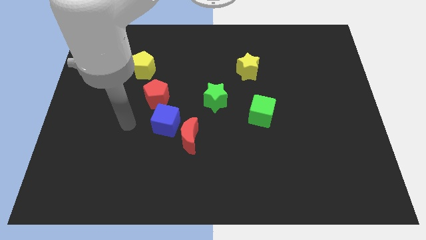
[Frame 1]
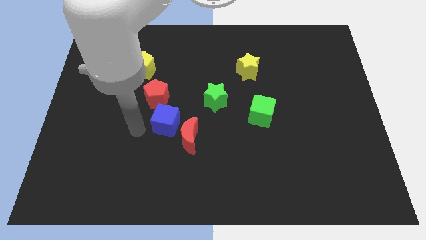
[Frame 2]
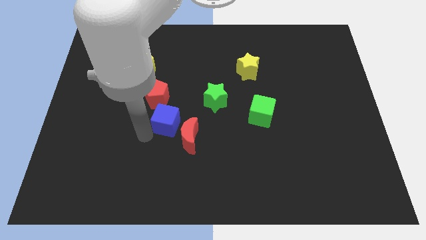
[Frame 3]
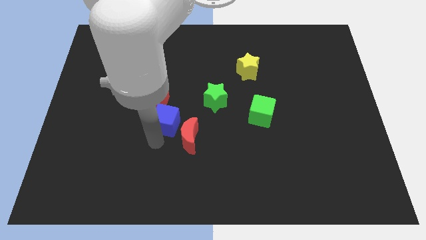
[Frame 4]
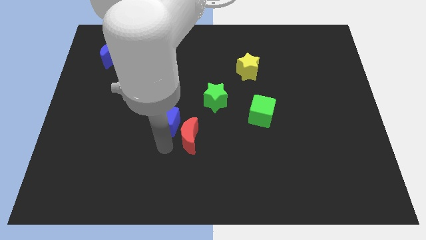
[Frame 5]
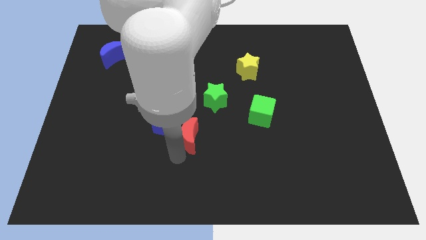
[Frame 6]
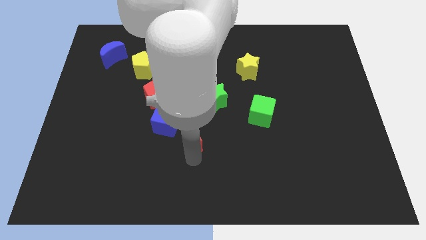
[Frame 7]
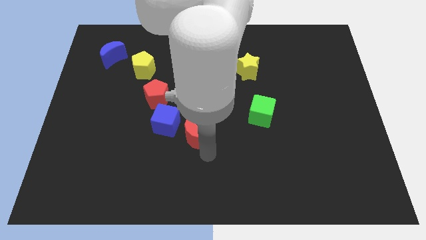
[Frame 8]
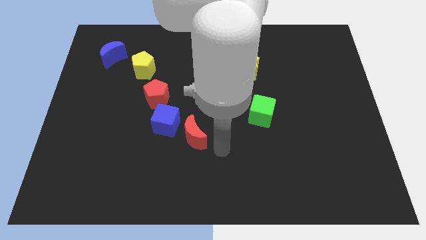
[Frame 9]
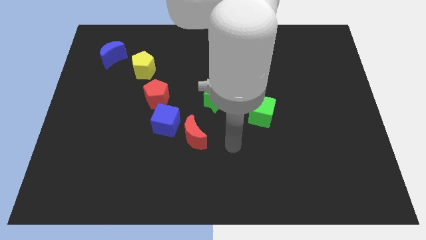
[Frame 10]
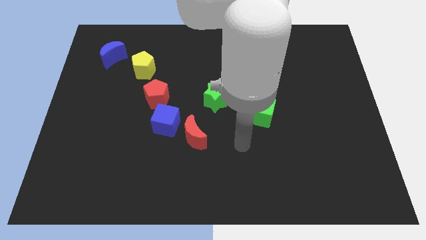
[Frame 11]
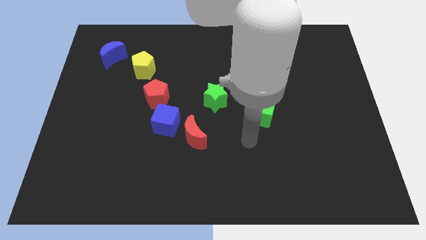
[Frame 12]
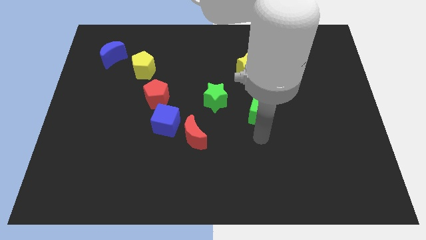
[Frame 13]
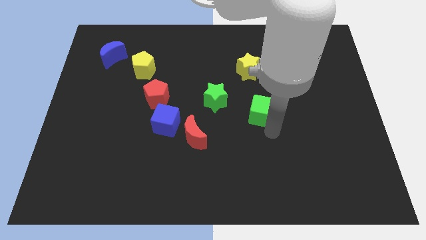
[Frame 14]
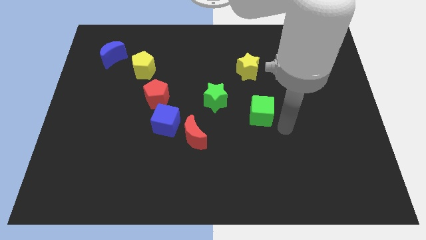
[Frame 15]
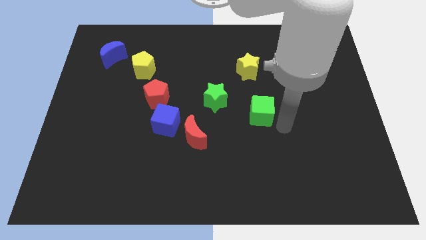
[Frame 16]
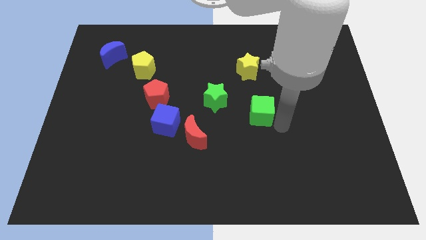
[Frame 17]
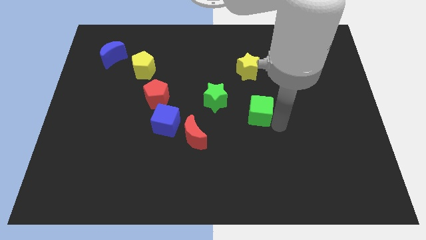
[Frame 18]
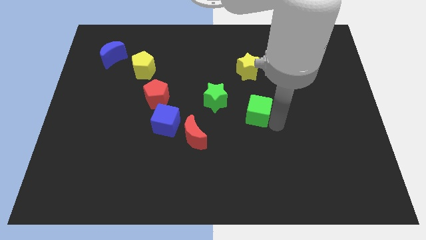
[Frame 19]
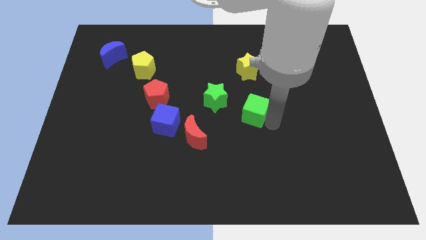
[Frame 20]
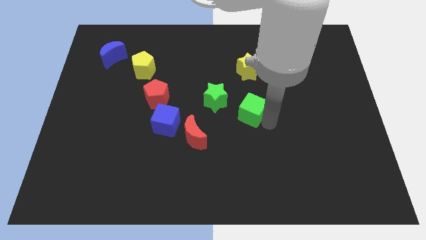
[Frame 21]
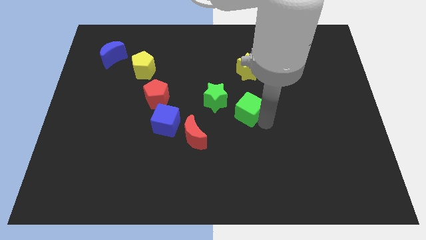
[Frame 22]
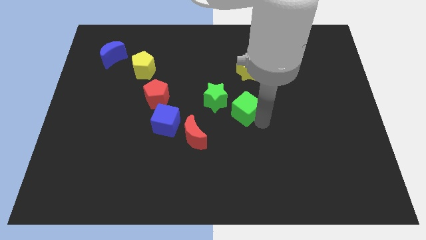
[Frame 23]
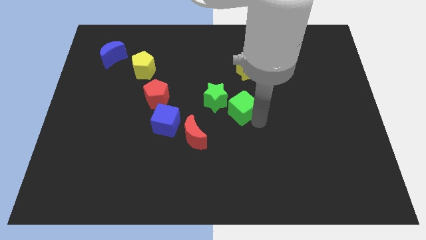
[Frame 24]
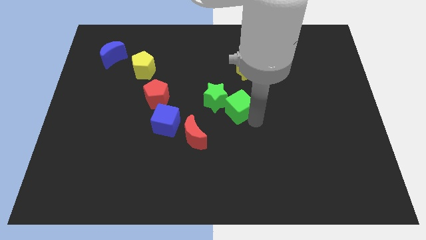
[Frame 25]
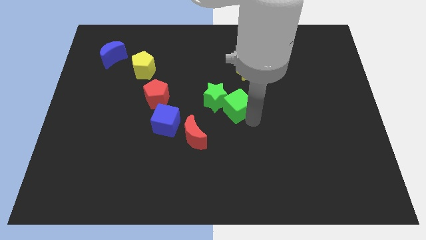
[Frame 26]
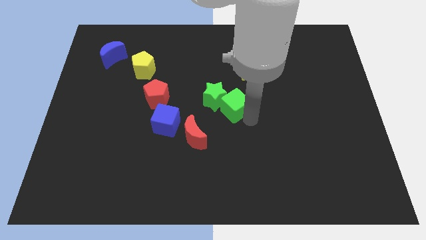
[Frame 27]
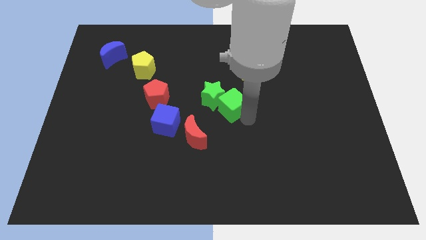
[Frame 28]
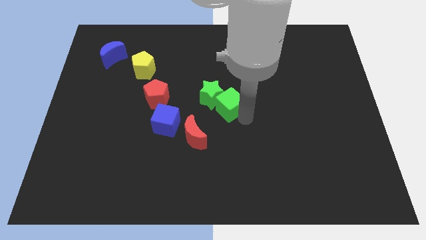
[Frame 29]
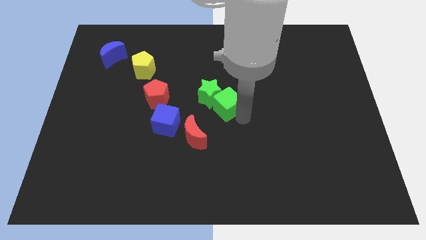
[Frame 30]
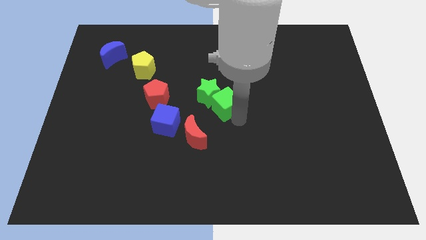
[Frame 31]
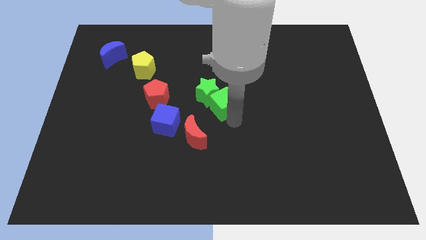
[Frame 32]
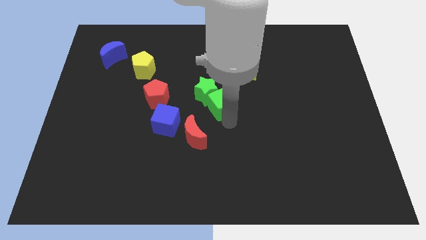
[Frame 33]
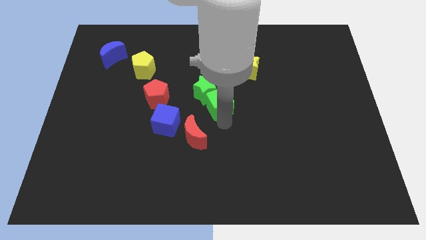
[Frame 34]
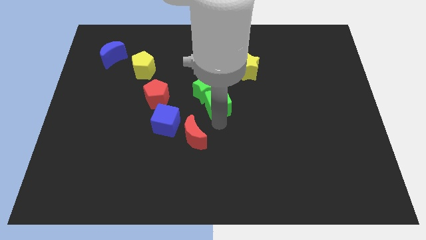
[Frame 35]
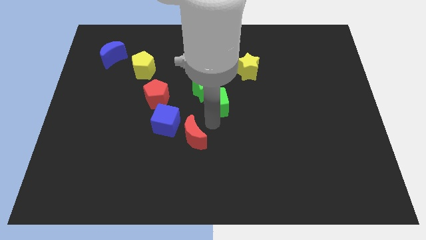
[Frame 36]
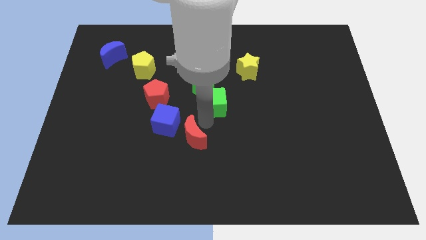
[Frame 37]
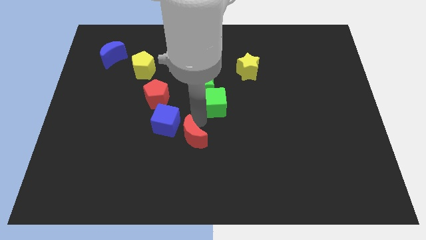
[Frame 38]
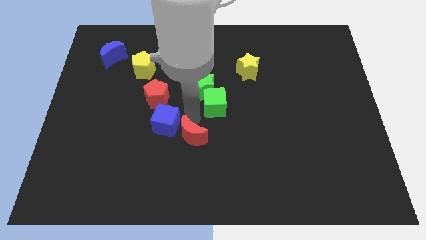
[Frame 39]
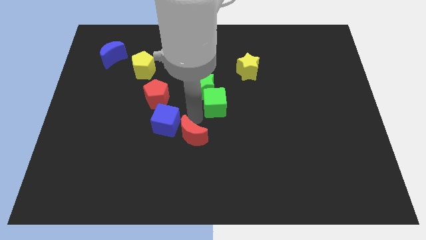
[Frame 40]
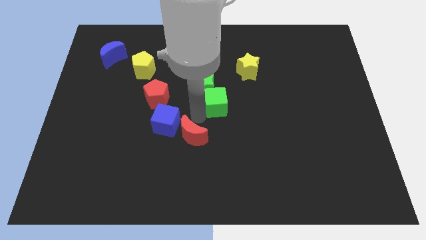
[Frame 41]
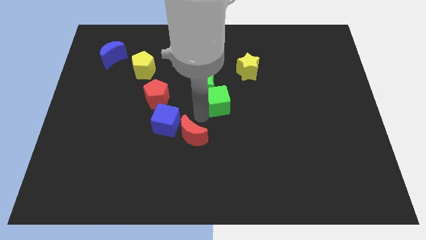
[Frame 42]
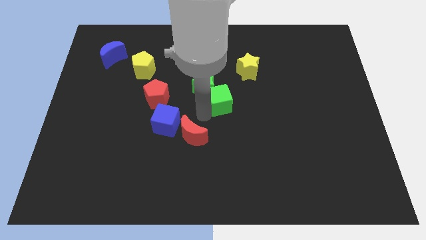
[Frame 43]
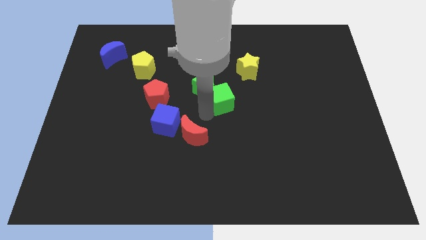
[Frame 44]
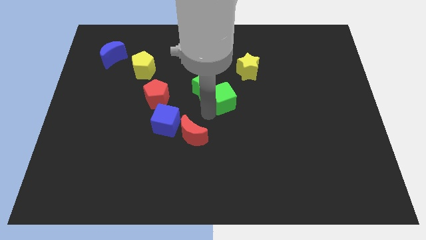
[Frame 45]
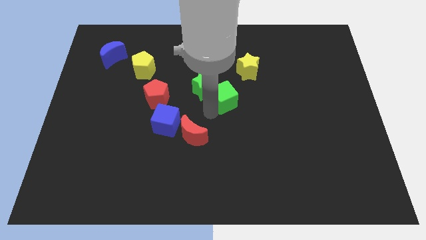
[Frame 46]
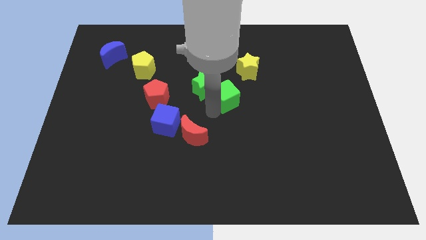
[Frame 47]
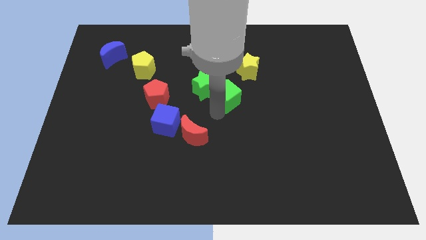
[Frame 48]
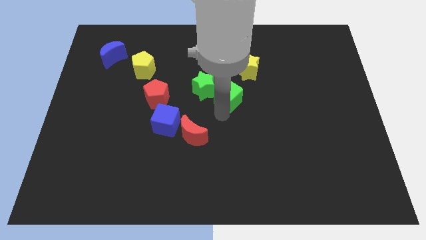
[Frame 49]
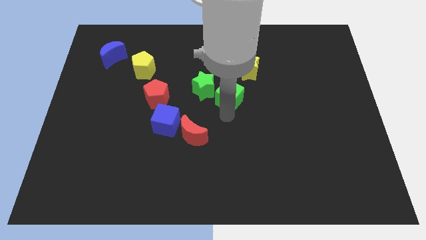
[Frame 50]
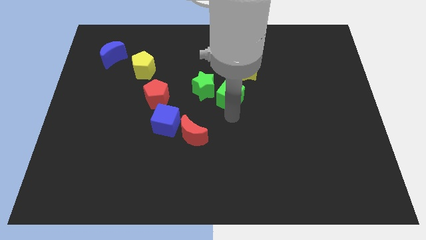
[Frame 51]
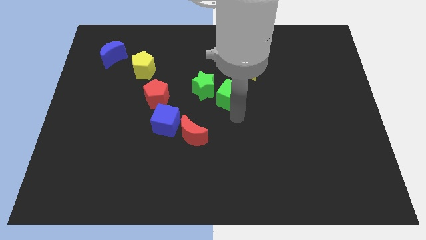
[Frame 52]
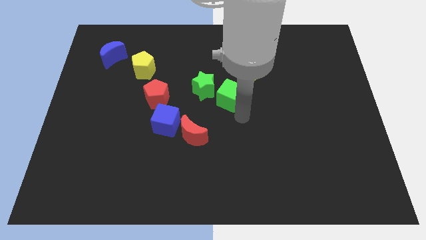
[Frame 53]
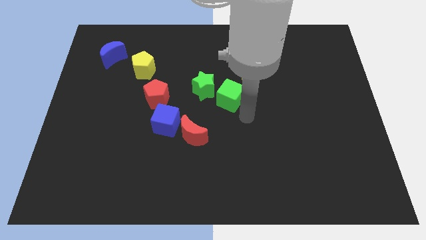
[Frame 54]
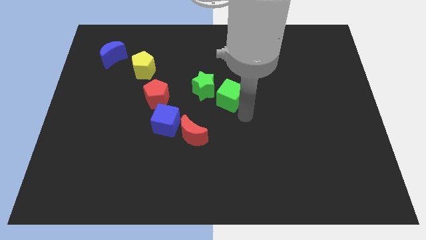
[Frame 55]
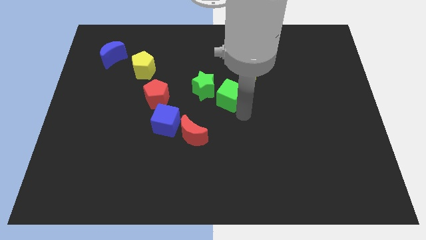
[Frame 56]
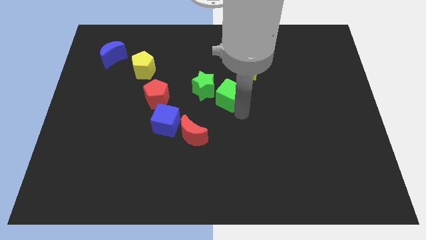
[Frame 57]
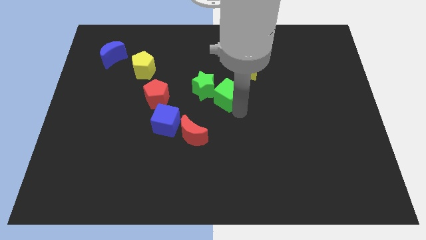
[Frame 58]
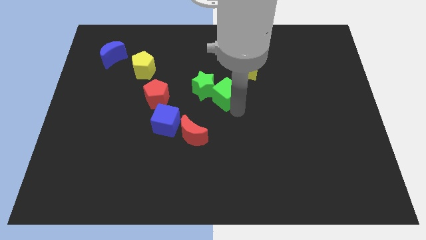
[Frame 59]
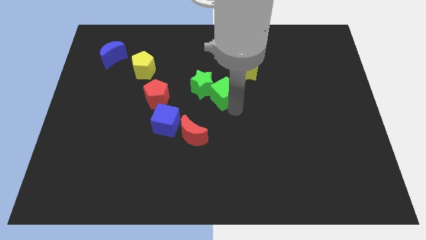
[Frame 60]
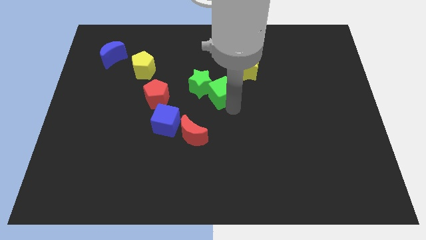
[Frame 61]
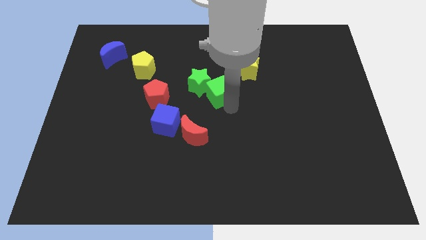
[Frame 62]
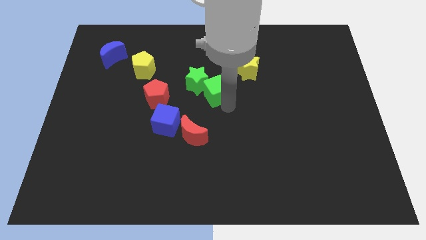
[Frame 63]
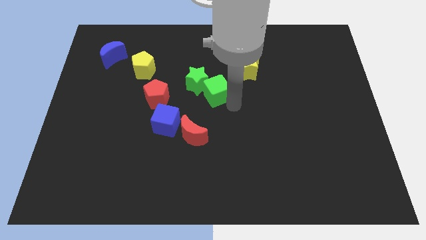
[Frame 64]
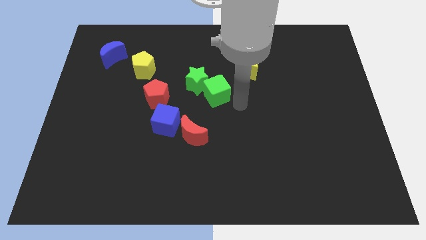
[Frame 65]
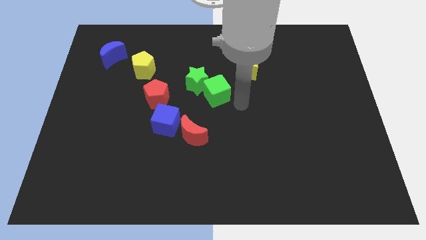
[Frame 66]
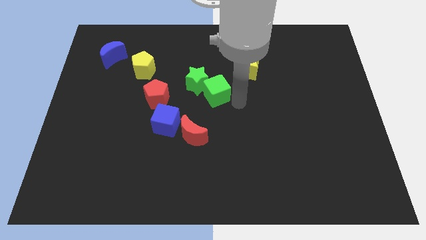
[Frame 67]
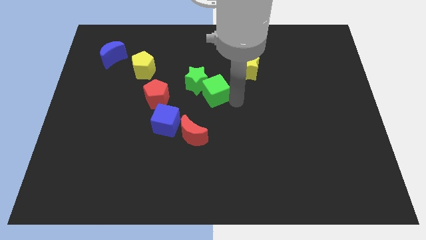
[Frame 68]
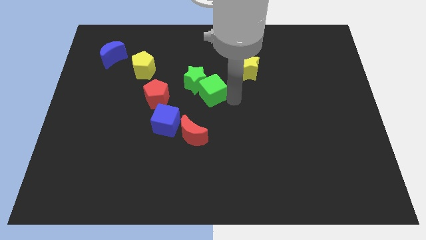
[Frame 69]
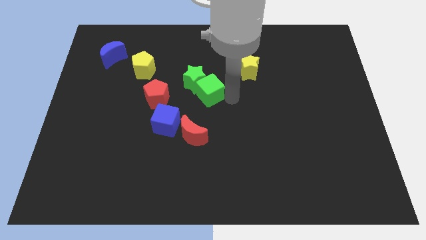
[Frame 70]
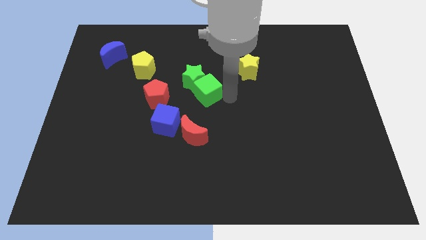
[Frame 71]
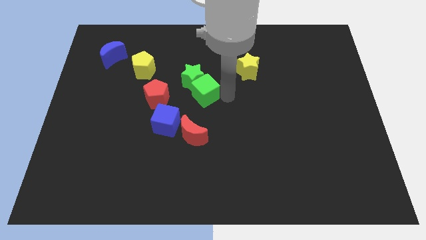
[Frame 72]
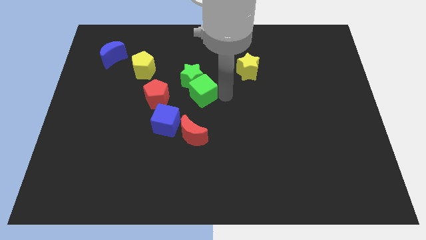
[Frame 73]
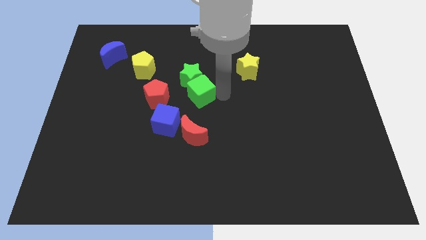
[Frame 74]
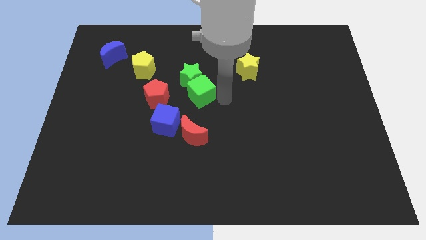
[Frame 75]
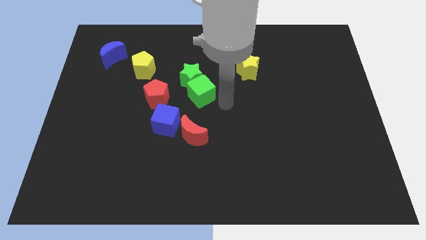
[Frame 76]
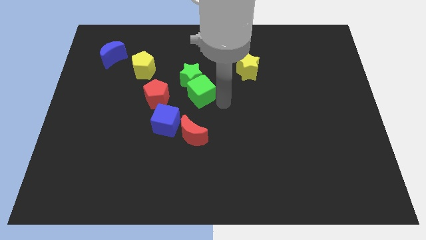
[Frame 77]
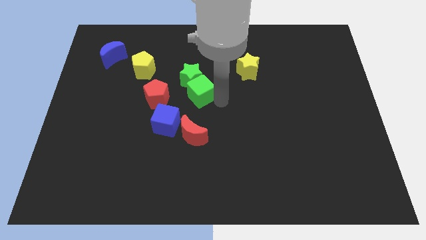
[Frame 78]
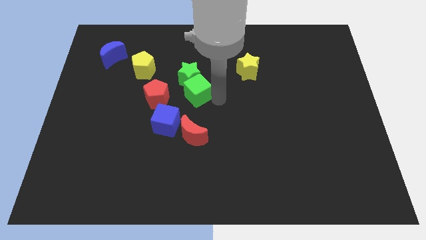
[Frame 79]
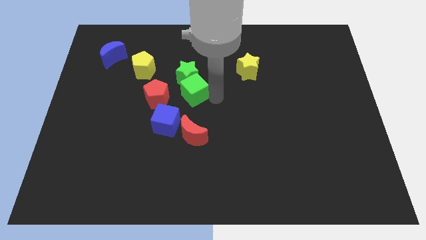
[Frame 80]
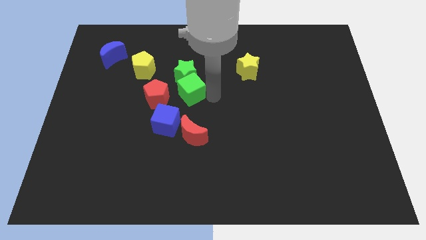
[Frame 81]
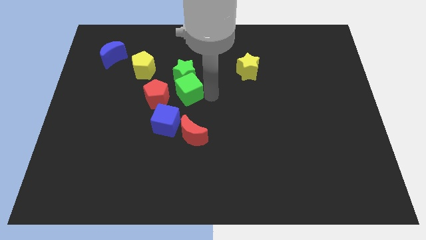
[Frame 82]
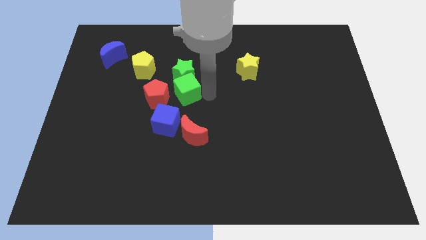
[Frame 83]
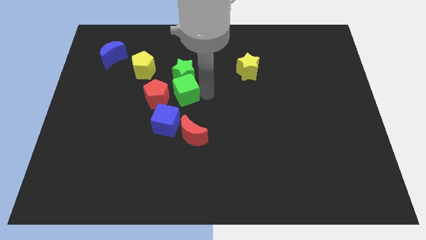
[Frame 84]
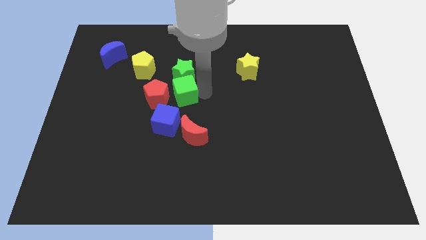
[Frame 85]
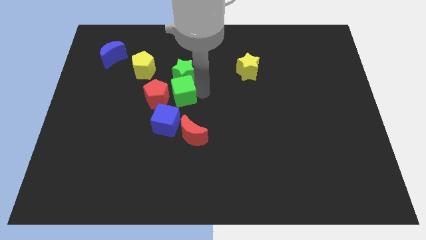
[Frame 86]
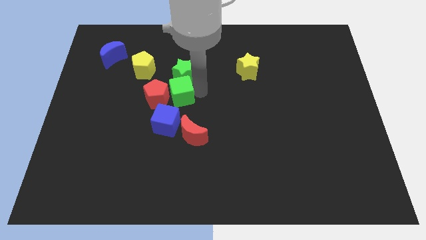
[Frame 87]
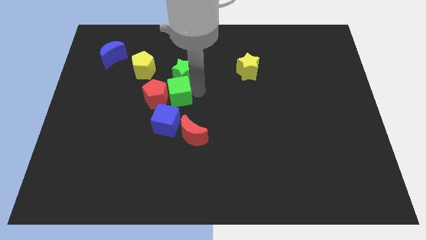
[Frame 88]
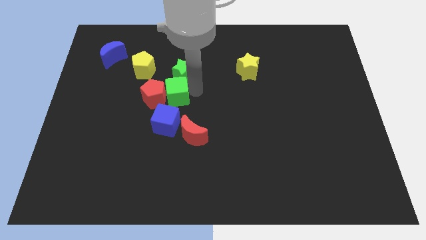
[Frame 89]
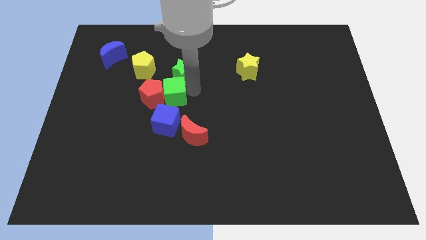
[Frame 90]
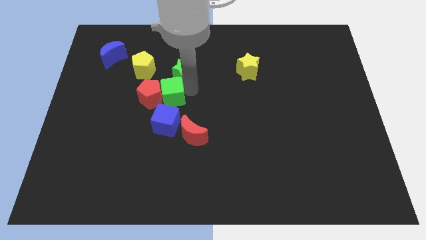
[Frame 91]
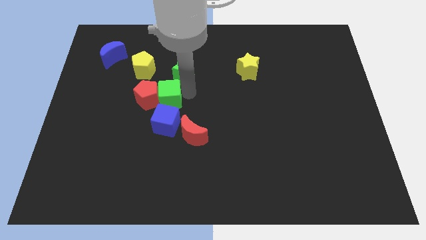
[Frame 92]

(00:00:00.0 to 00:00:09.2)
slide the green cube left
